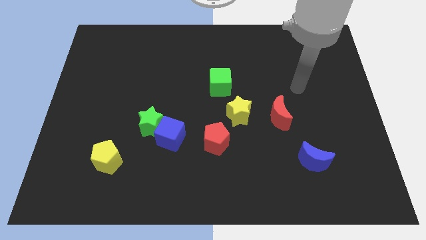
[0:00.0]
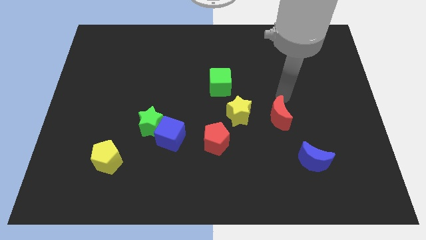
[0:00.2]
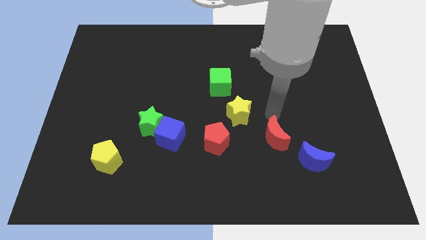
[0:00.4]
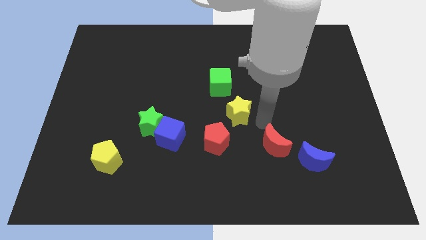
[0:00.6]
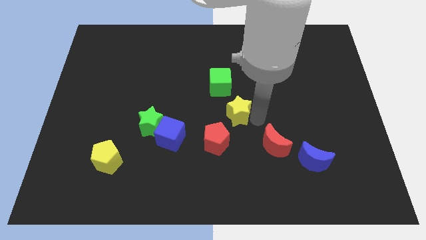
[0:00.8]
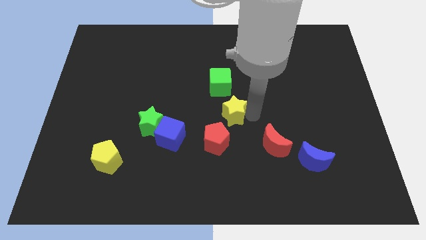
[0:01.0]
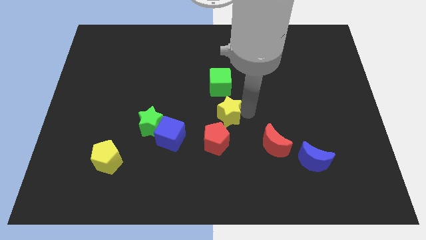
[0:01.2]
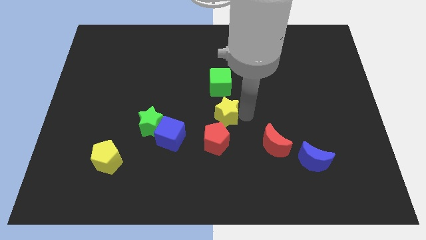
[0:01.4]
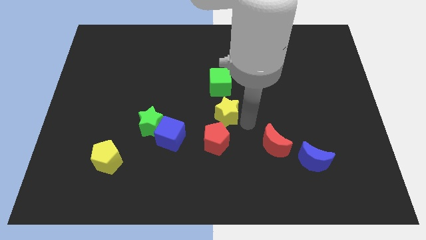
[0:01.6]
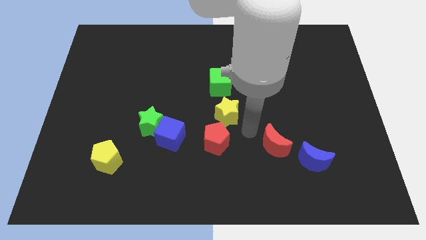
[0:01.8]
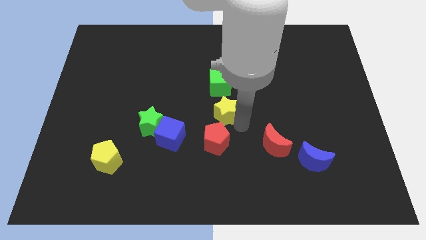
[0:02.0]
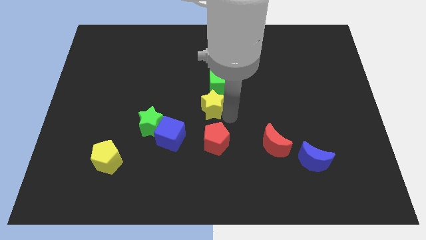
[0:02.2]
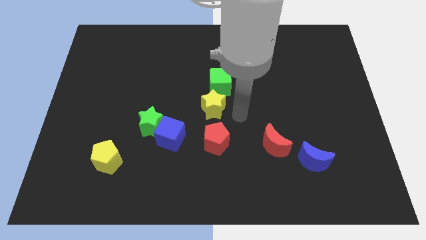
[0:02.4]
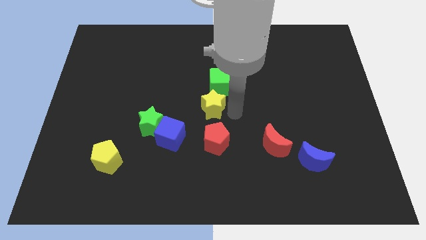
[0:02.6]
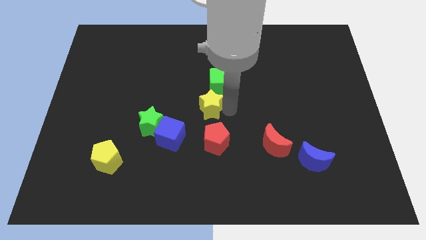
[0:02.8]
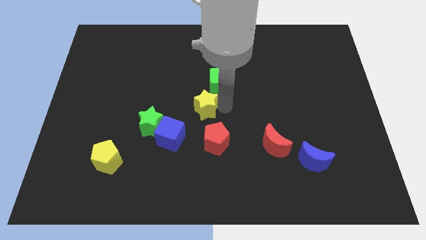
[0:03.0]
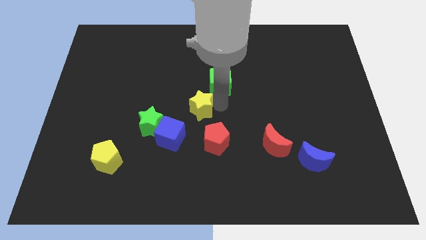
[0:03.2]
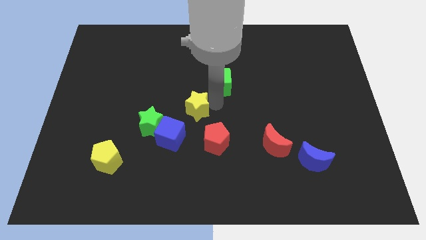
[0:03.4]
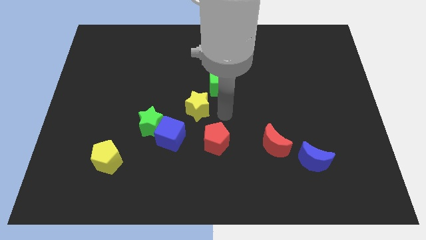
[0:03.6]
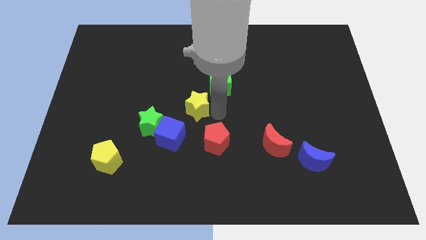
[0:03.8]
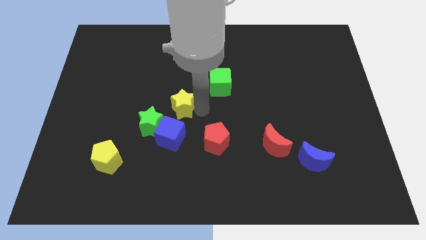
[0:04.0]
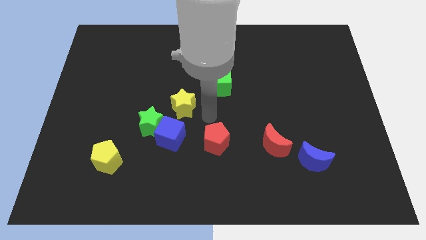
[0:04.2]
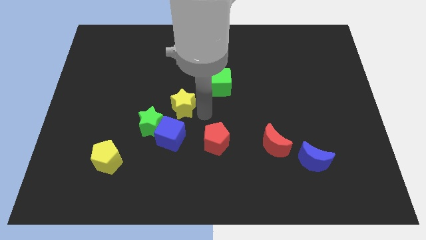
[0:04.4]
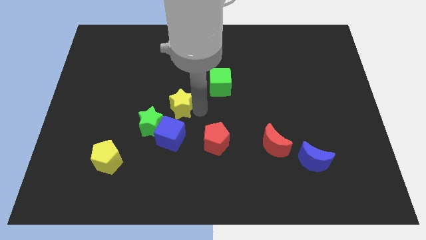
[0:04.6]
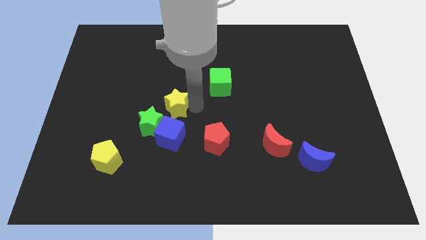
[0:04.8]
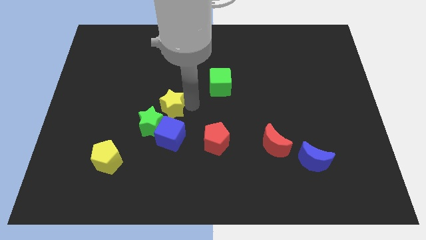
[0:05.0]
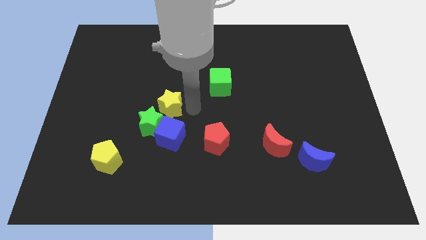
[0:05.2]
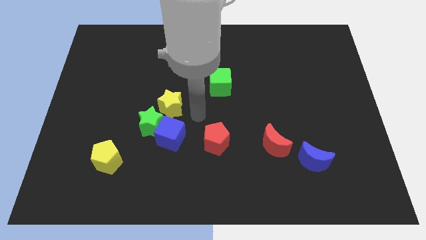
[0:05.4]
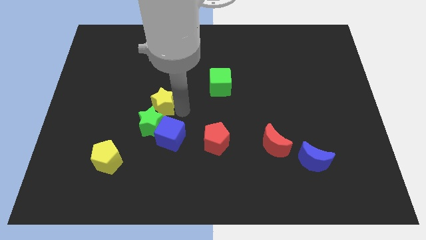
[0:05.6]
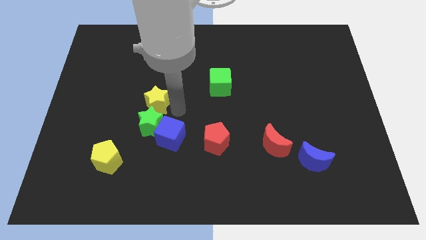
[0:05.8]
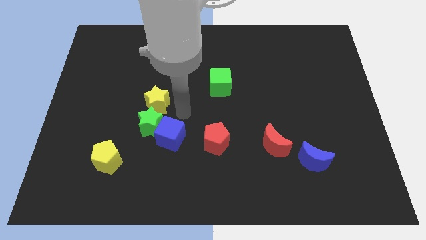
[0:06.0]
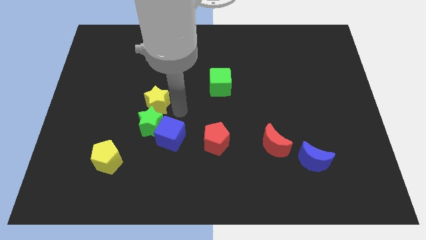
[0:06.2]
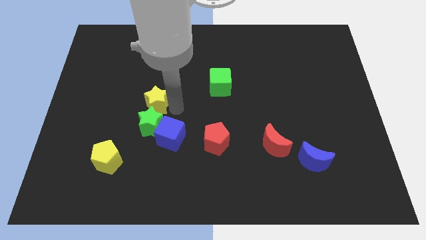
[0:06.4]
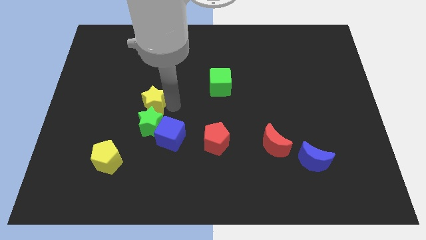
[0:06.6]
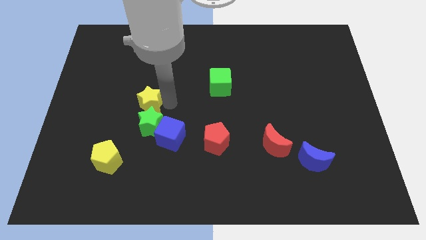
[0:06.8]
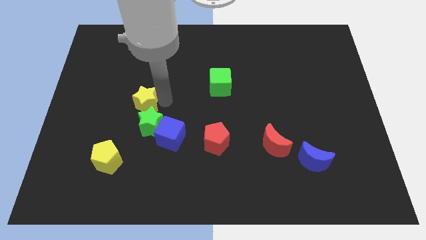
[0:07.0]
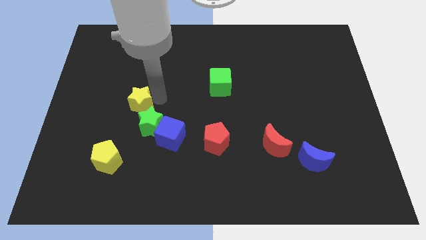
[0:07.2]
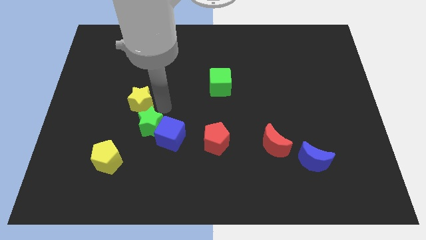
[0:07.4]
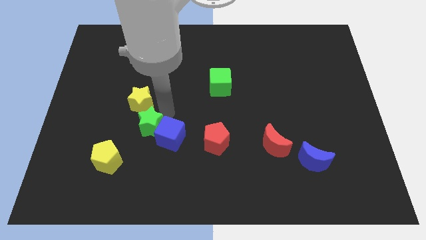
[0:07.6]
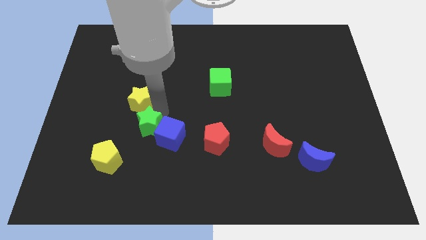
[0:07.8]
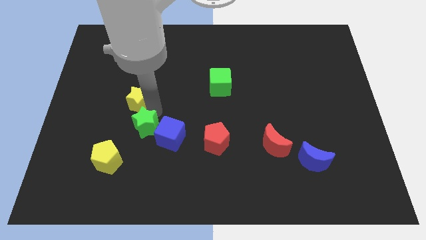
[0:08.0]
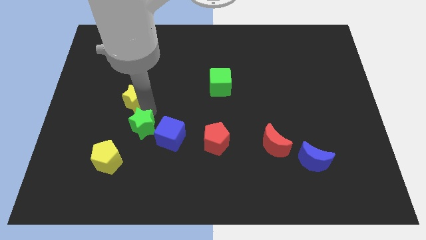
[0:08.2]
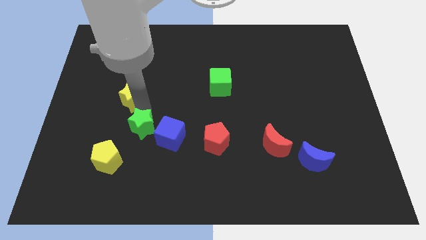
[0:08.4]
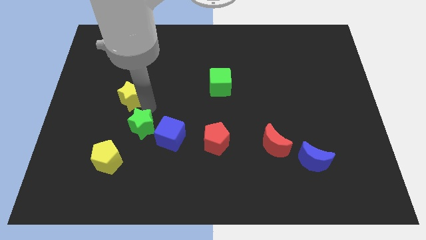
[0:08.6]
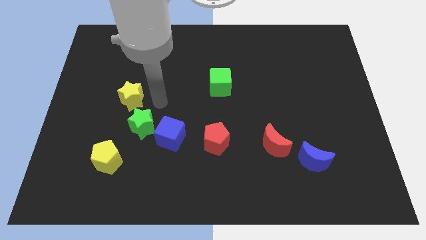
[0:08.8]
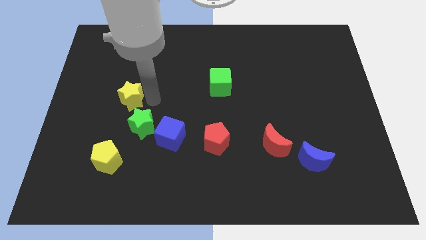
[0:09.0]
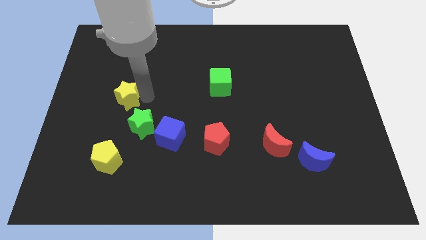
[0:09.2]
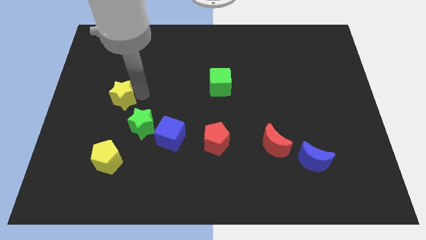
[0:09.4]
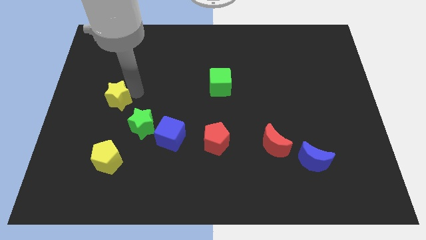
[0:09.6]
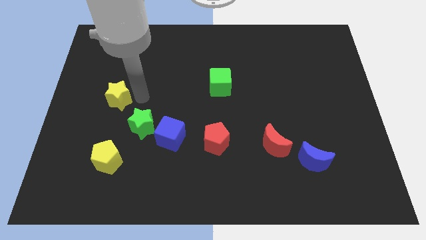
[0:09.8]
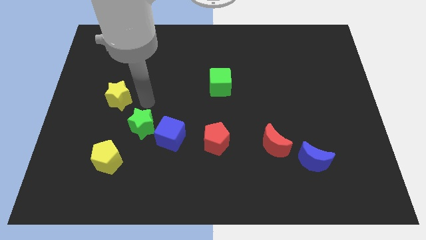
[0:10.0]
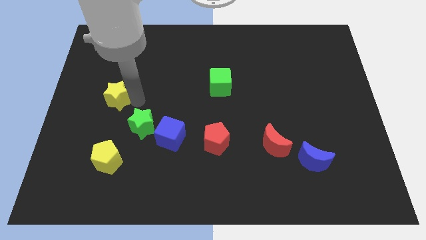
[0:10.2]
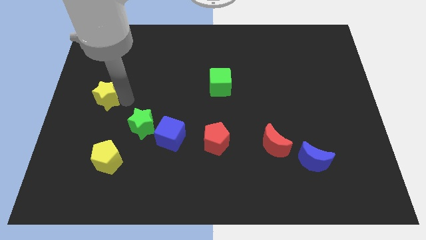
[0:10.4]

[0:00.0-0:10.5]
slide the yellow star to the center left

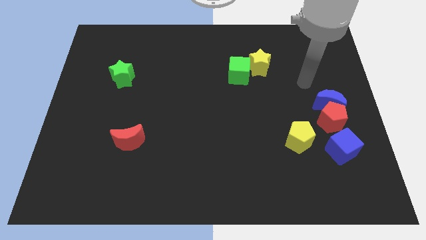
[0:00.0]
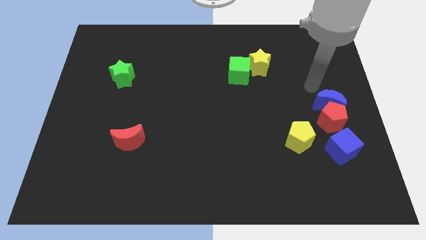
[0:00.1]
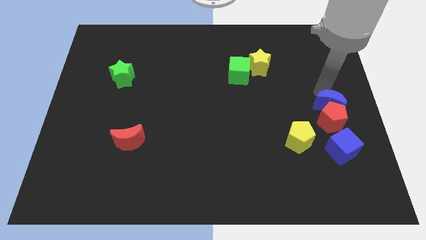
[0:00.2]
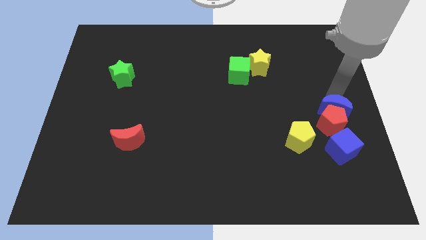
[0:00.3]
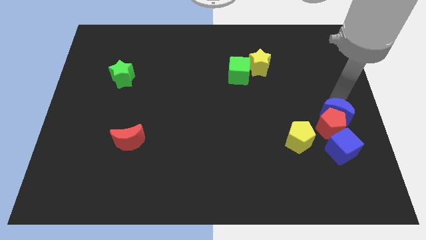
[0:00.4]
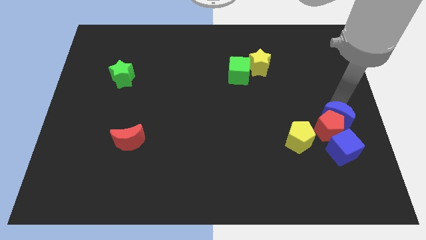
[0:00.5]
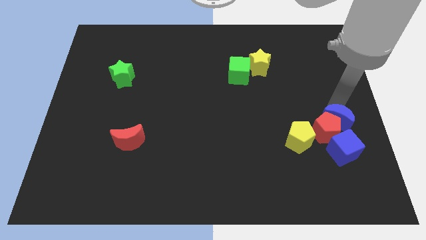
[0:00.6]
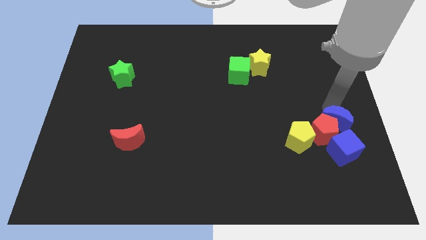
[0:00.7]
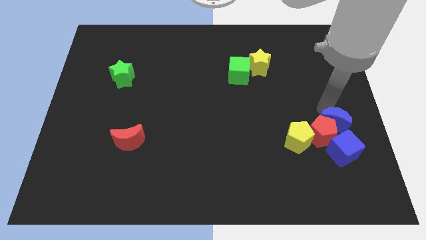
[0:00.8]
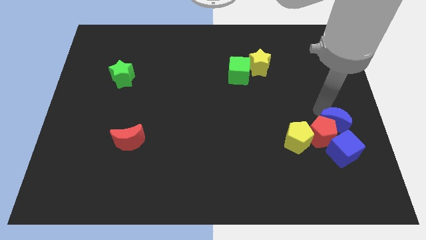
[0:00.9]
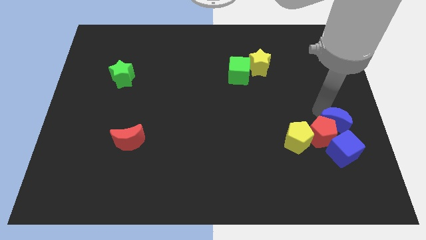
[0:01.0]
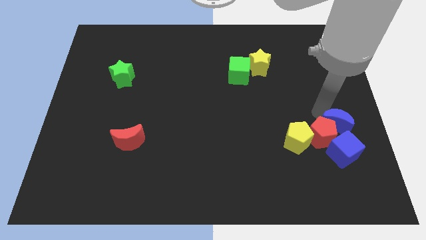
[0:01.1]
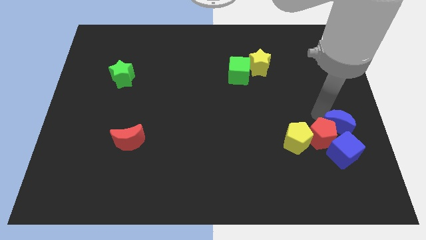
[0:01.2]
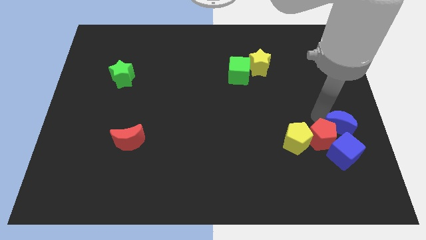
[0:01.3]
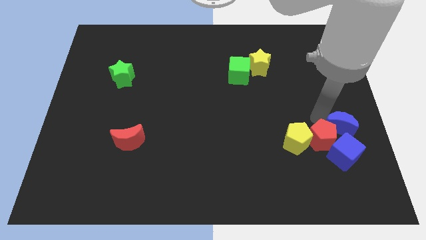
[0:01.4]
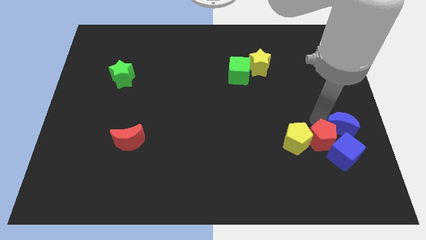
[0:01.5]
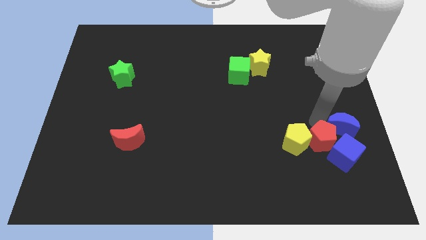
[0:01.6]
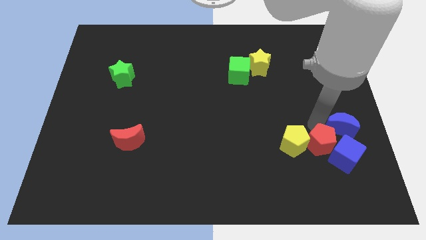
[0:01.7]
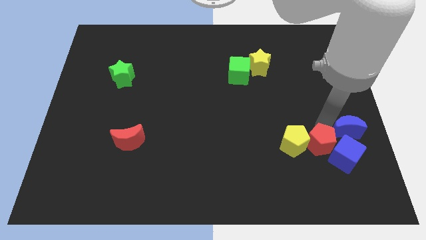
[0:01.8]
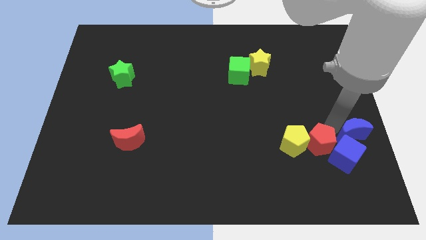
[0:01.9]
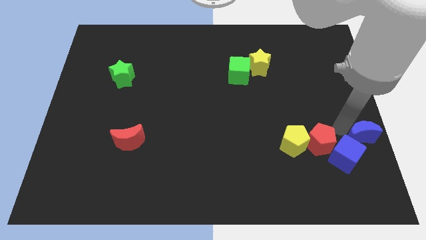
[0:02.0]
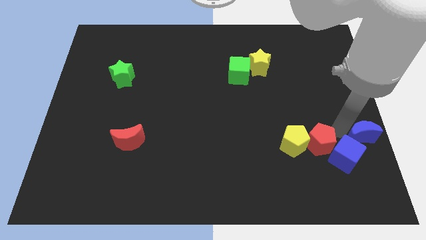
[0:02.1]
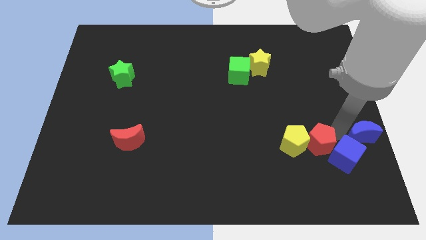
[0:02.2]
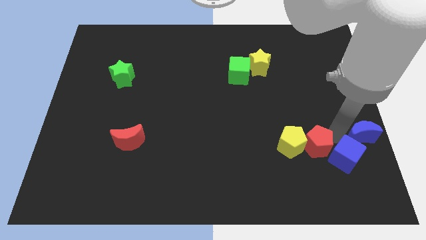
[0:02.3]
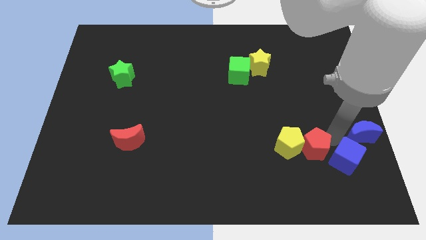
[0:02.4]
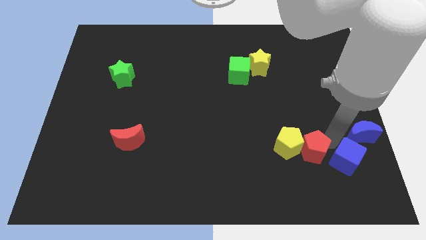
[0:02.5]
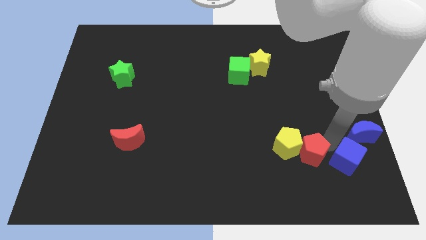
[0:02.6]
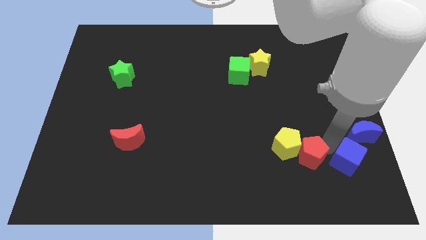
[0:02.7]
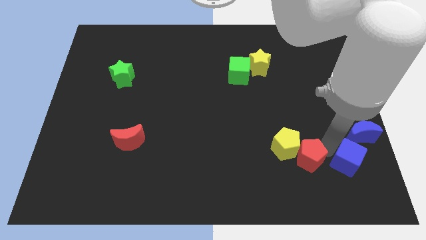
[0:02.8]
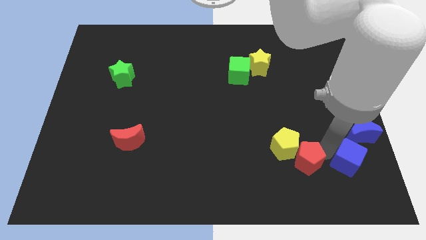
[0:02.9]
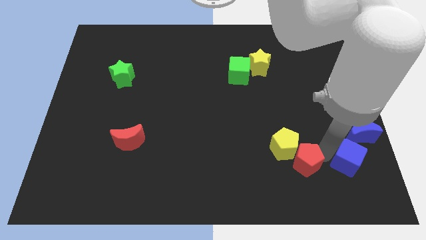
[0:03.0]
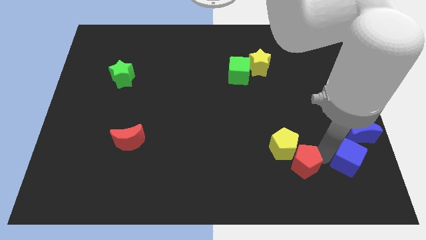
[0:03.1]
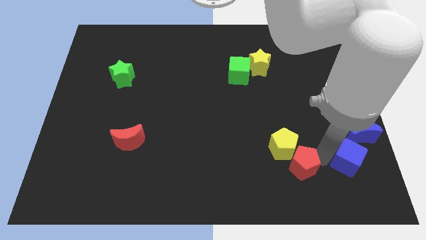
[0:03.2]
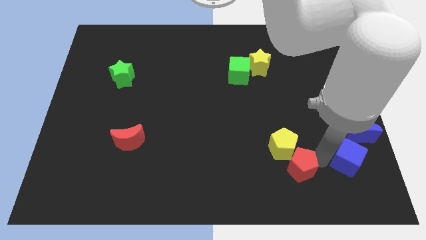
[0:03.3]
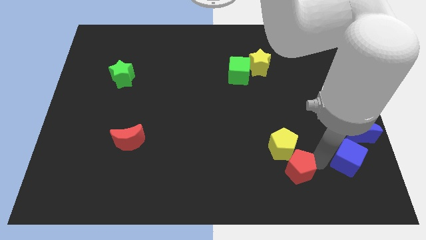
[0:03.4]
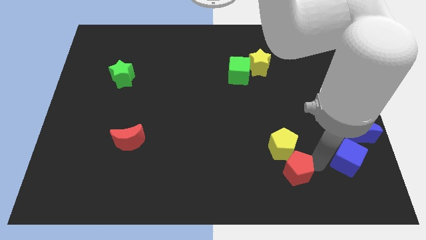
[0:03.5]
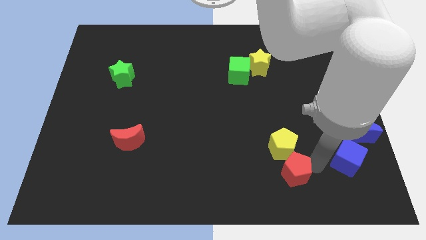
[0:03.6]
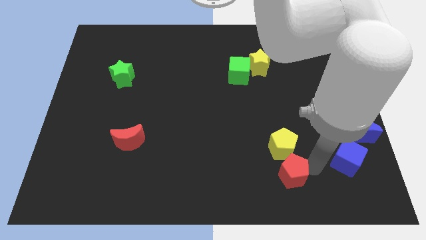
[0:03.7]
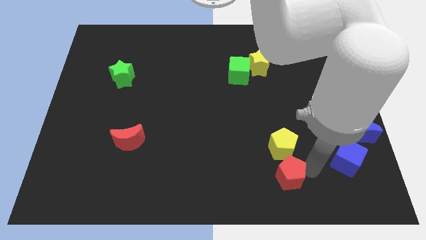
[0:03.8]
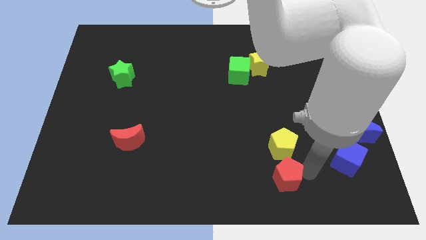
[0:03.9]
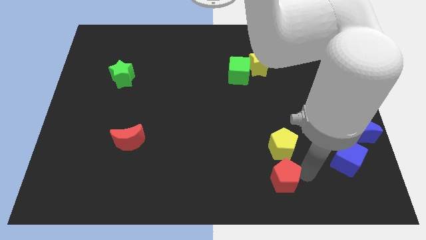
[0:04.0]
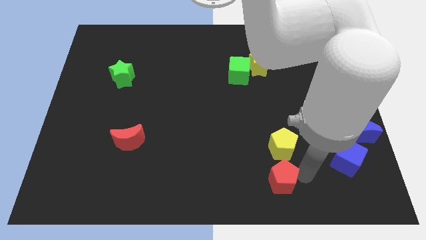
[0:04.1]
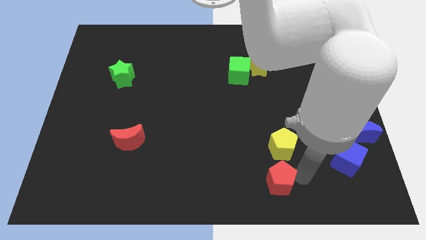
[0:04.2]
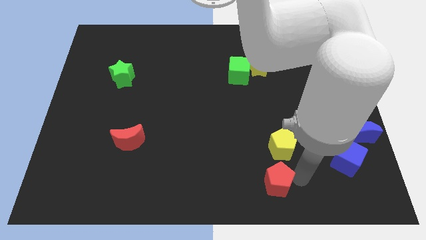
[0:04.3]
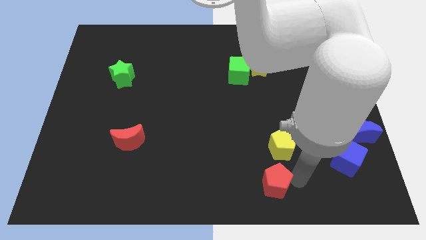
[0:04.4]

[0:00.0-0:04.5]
slide the red pentagon to the bottom side
